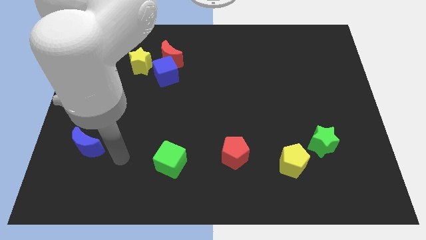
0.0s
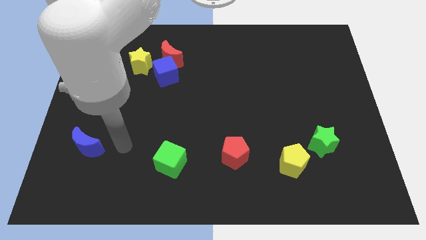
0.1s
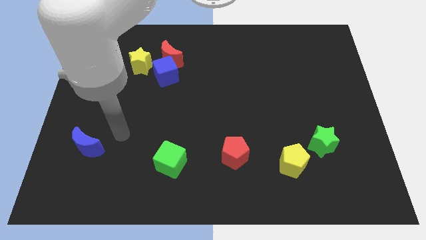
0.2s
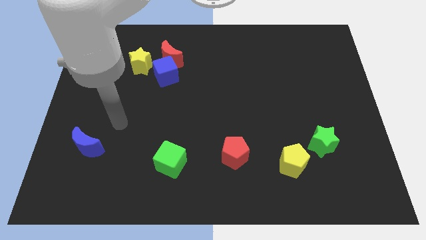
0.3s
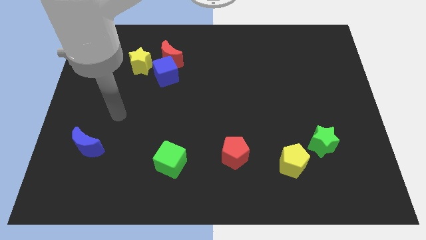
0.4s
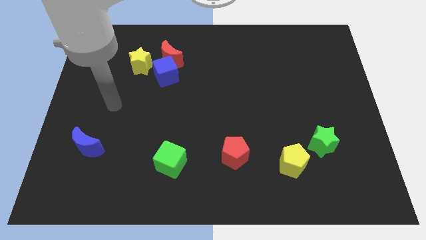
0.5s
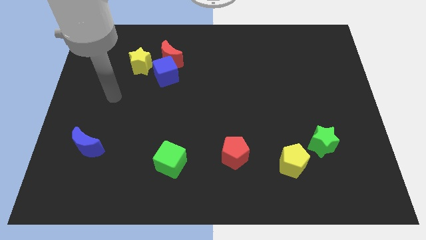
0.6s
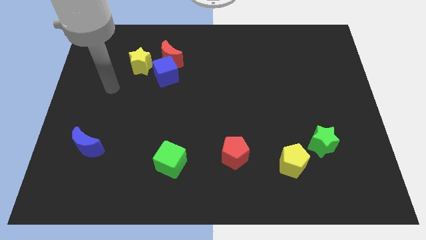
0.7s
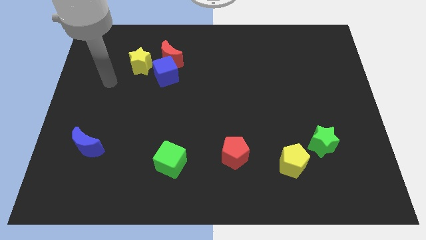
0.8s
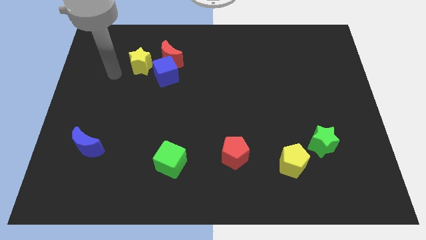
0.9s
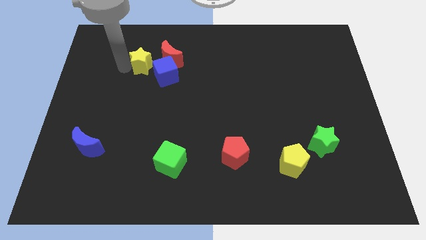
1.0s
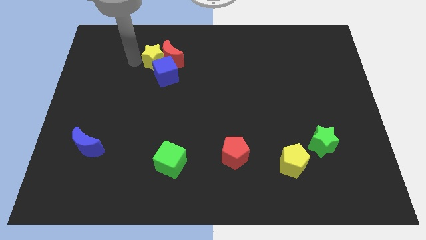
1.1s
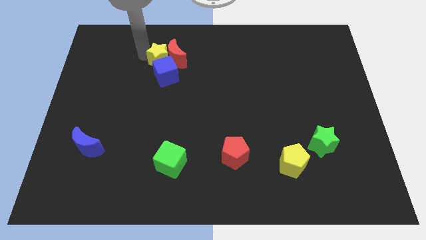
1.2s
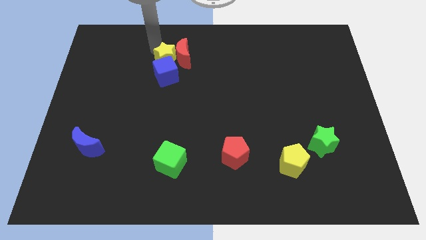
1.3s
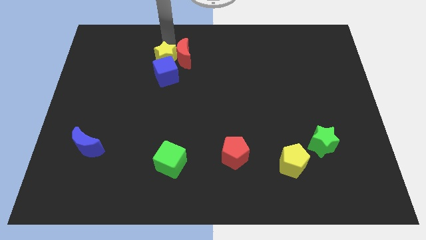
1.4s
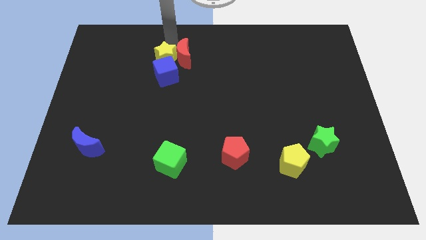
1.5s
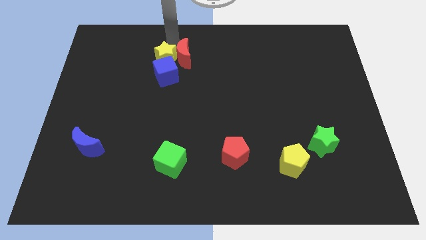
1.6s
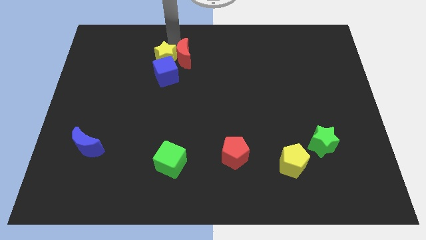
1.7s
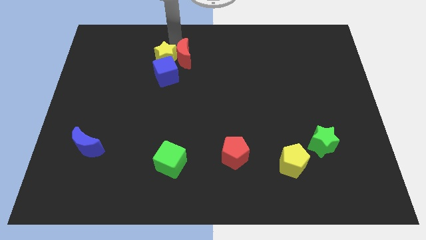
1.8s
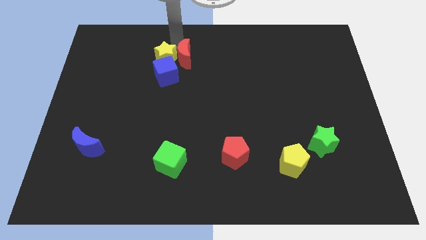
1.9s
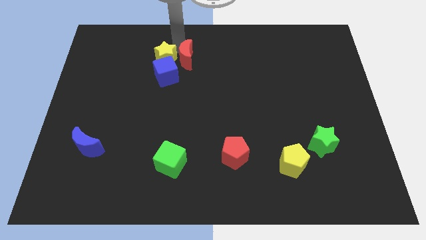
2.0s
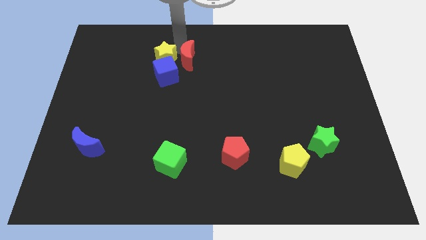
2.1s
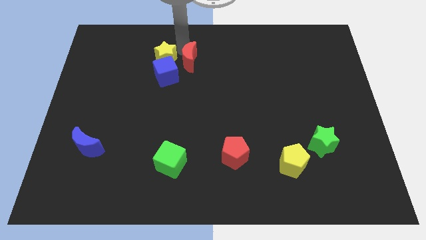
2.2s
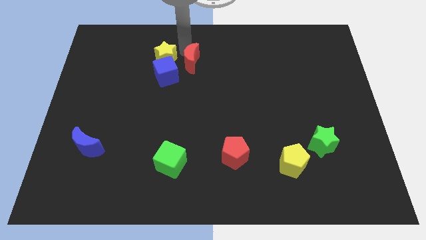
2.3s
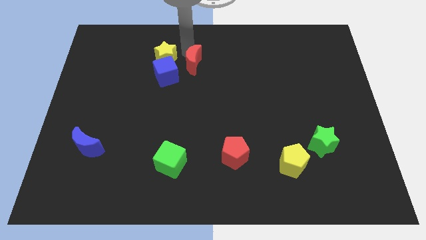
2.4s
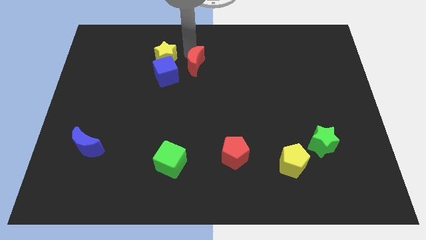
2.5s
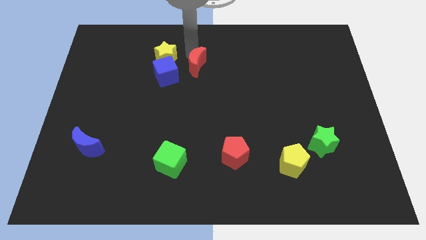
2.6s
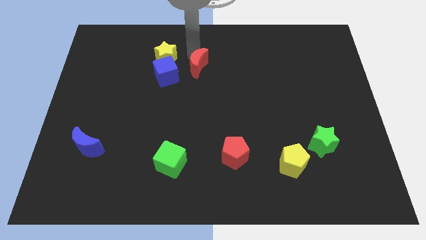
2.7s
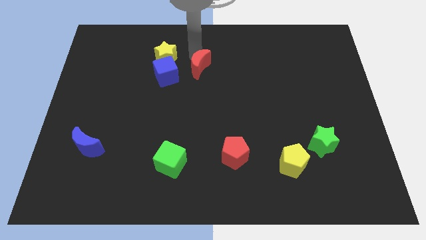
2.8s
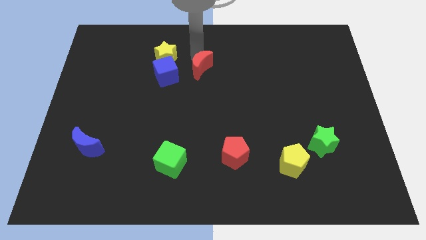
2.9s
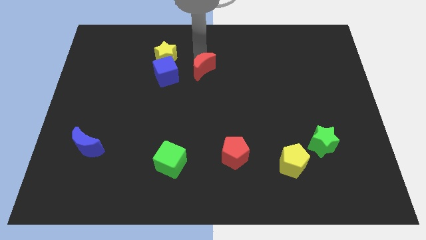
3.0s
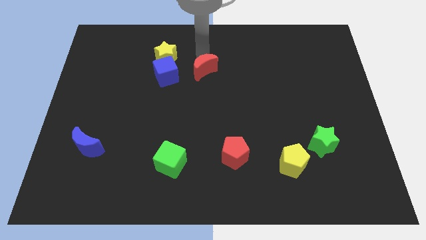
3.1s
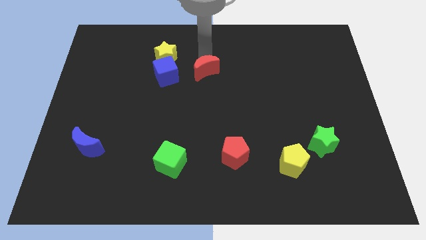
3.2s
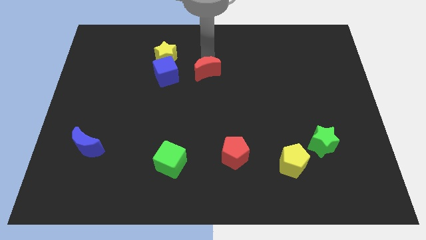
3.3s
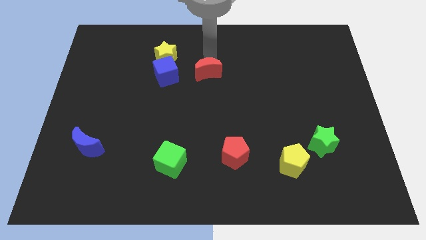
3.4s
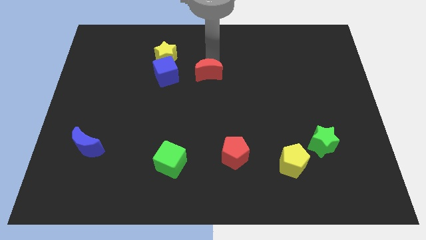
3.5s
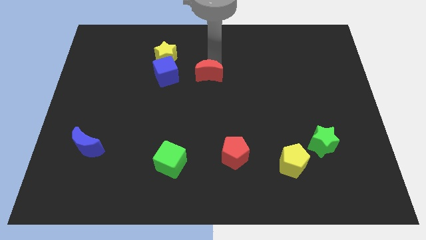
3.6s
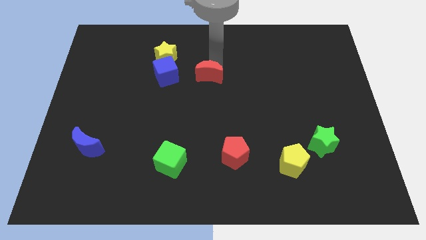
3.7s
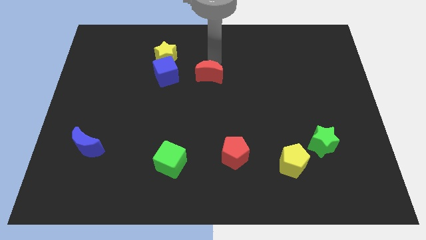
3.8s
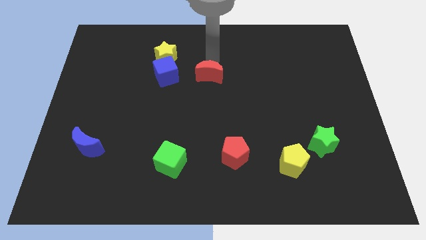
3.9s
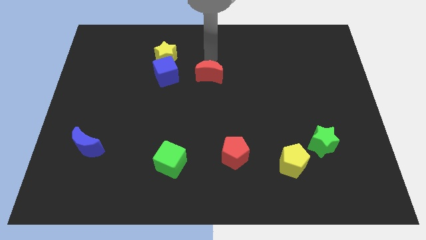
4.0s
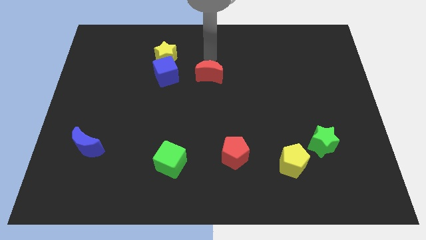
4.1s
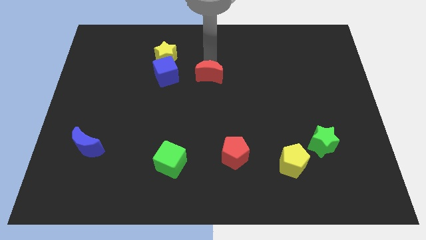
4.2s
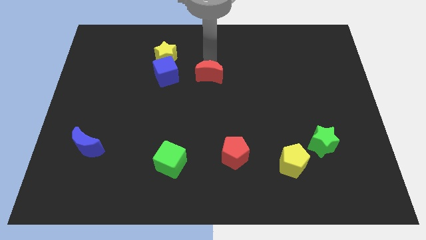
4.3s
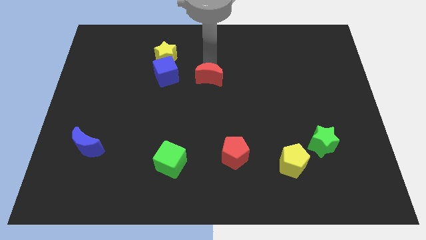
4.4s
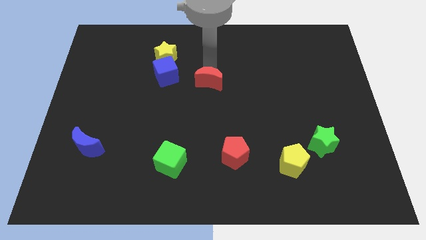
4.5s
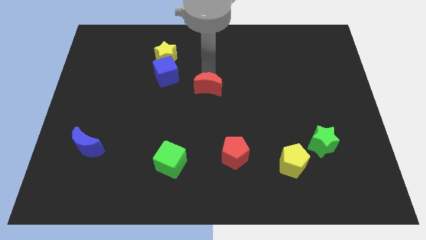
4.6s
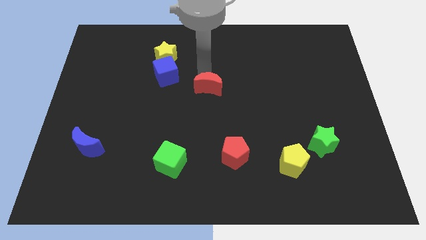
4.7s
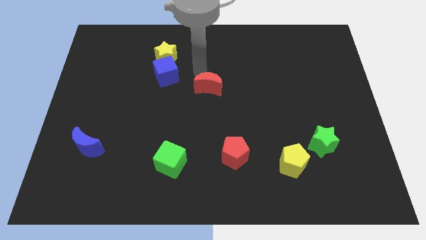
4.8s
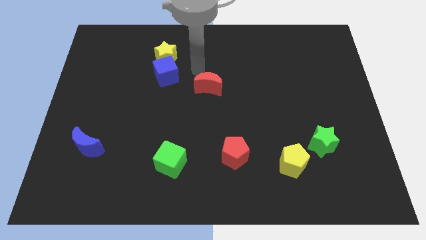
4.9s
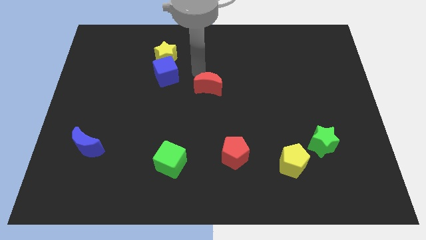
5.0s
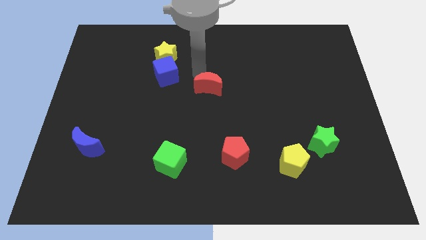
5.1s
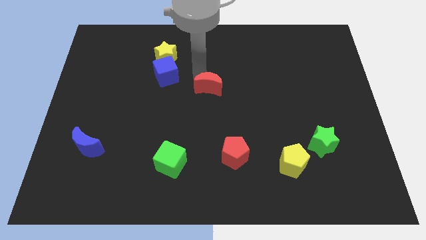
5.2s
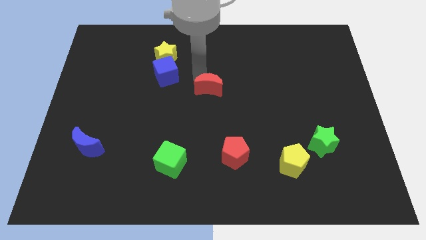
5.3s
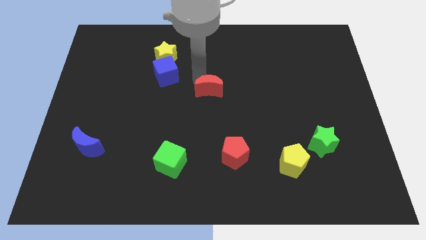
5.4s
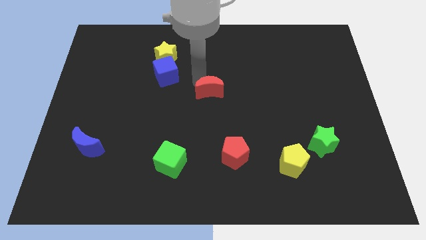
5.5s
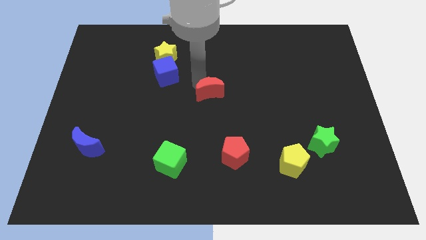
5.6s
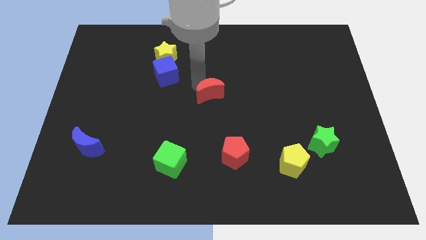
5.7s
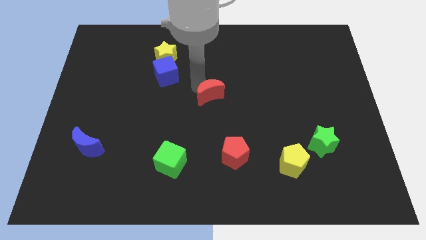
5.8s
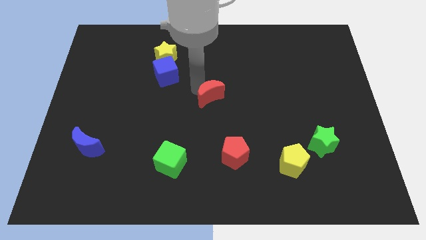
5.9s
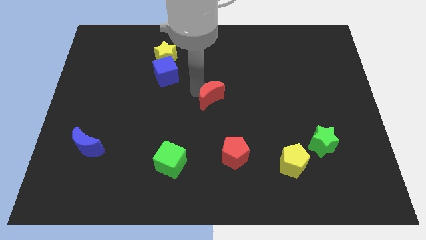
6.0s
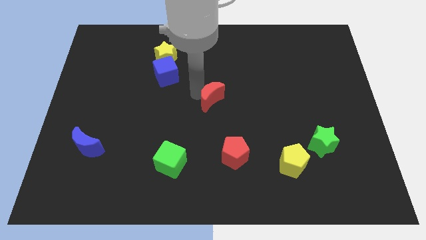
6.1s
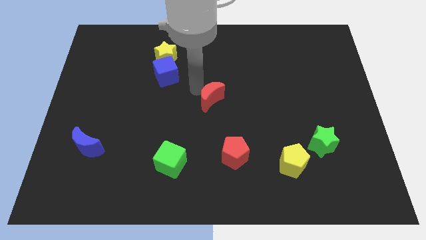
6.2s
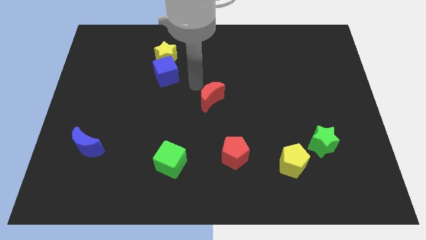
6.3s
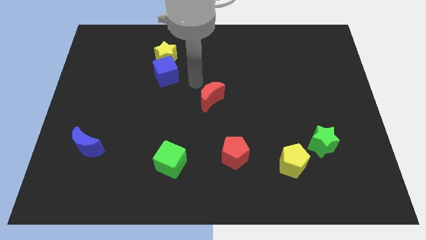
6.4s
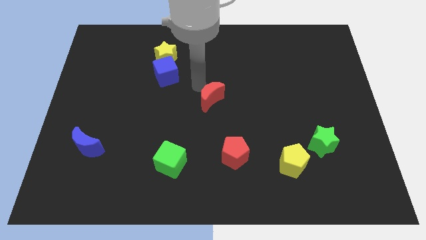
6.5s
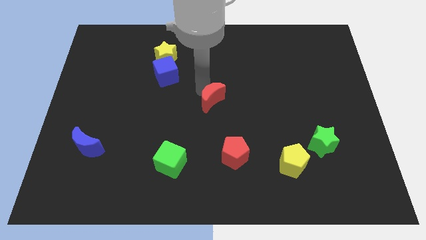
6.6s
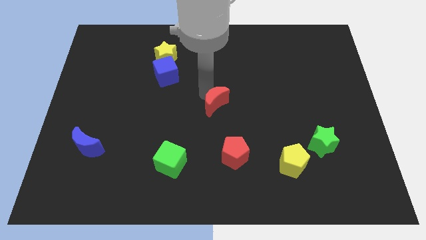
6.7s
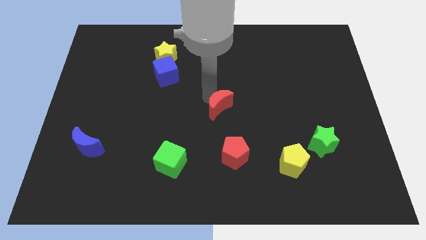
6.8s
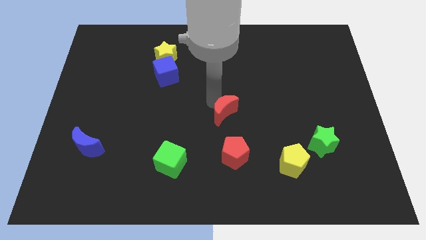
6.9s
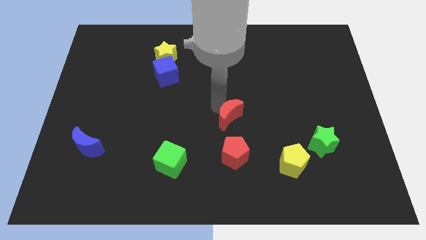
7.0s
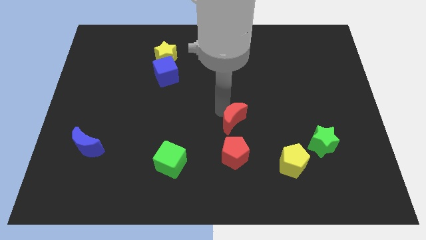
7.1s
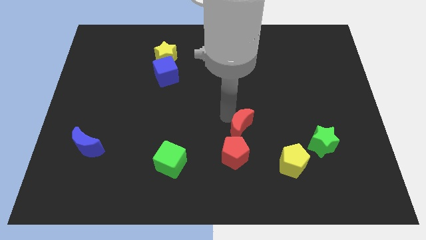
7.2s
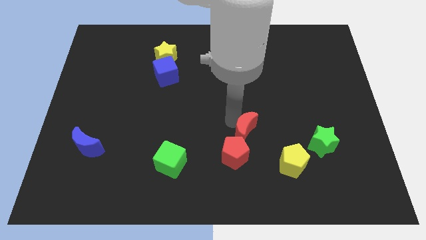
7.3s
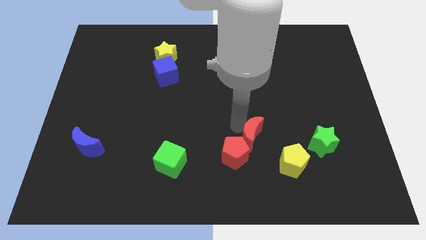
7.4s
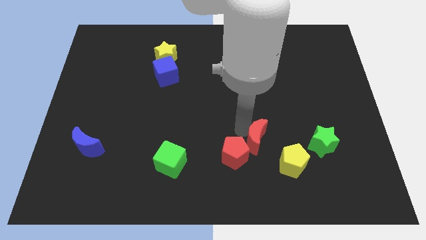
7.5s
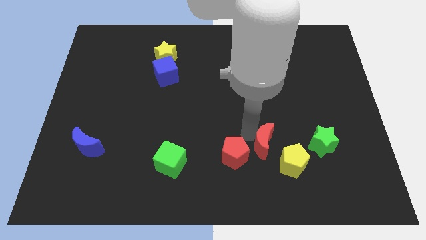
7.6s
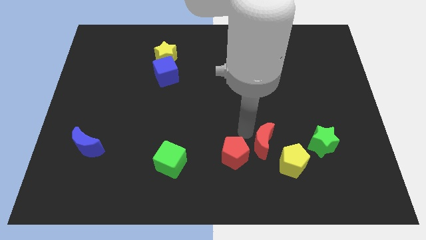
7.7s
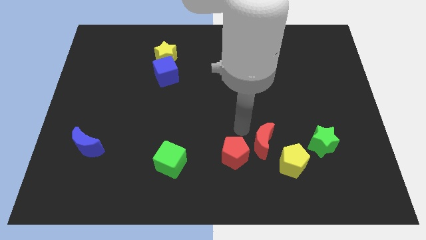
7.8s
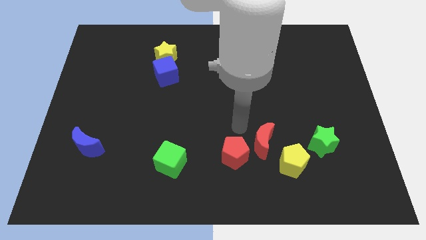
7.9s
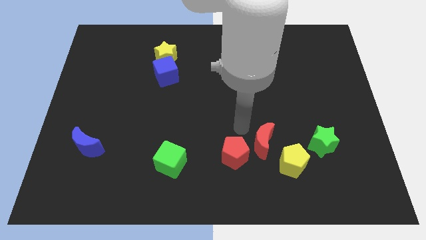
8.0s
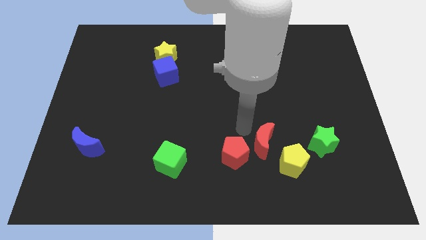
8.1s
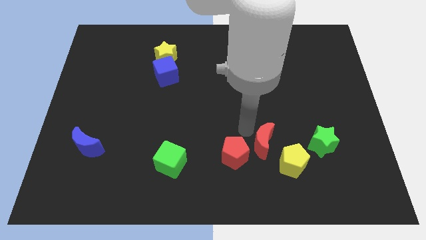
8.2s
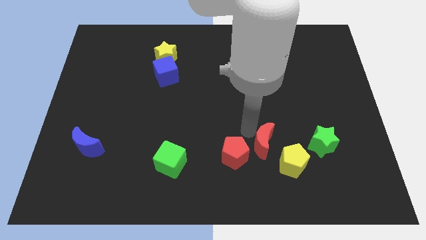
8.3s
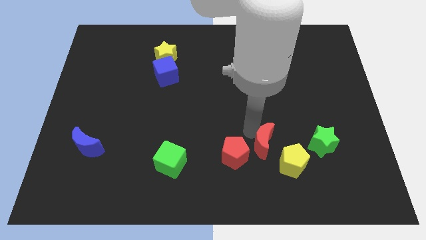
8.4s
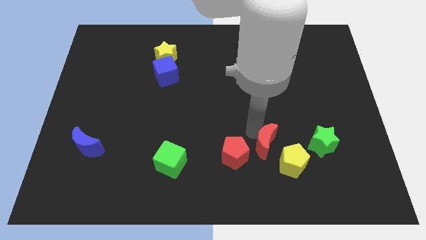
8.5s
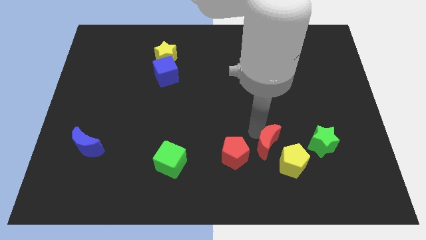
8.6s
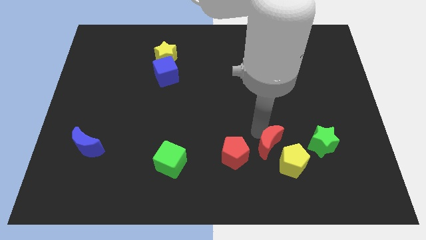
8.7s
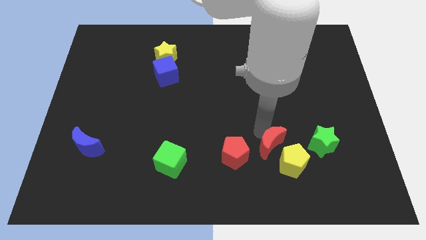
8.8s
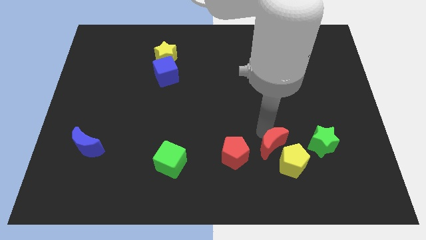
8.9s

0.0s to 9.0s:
put the red moon towards the yellow pentagon
